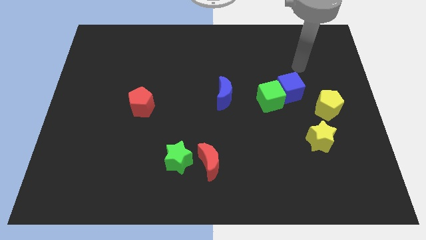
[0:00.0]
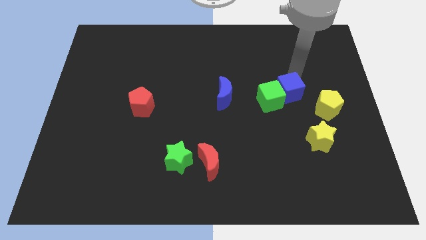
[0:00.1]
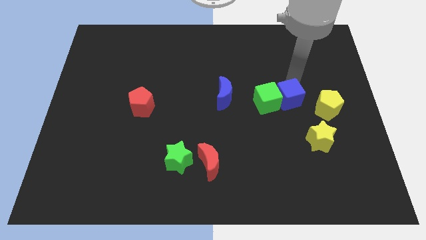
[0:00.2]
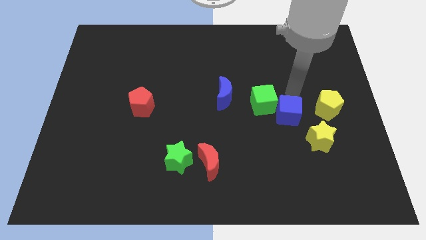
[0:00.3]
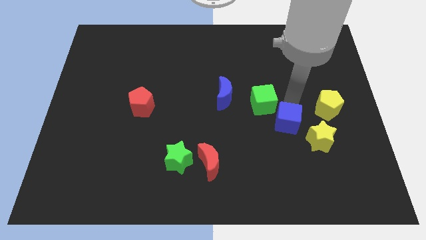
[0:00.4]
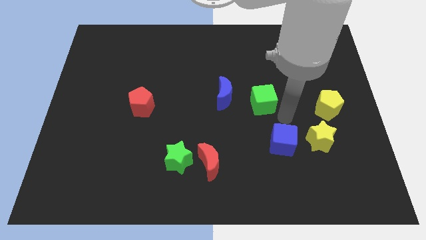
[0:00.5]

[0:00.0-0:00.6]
pull the green cube apart from the blue cube

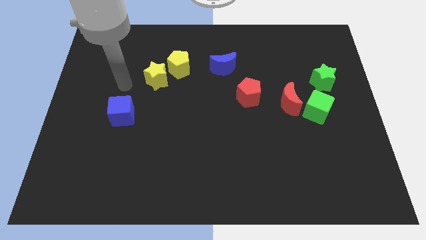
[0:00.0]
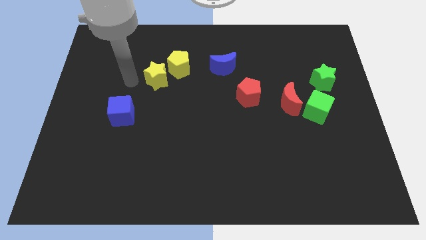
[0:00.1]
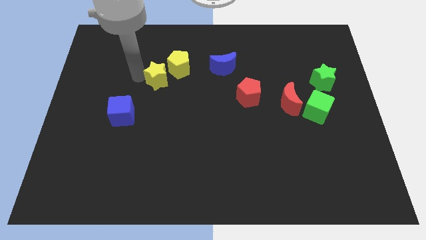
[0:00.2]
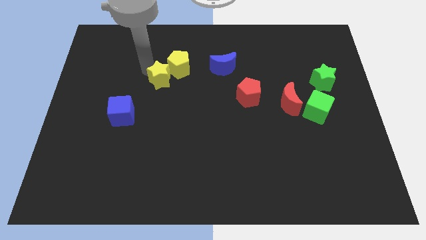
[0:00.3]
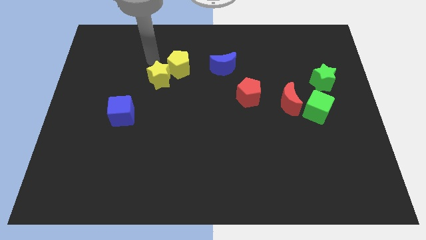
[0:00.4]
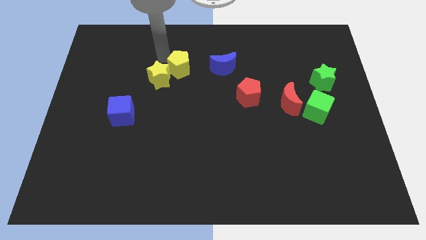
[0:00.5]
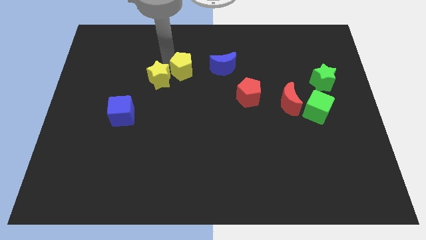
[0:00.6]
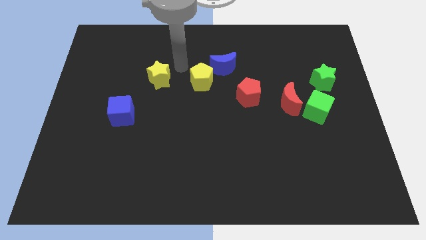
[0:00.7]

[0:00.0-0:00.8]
separate the yellow star from the yellow pentagon

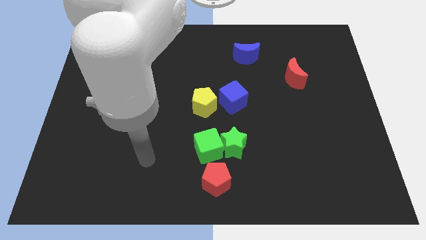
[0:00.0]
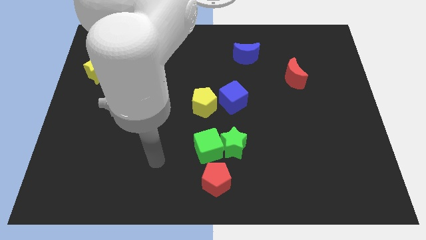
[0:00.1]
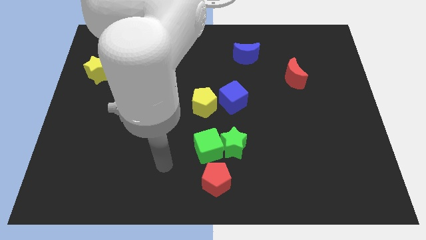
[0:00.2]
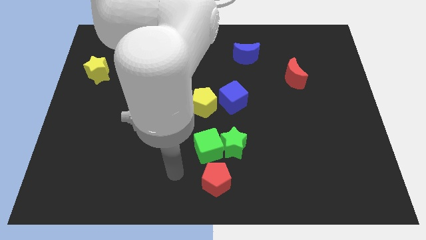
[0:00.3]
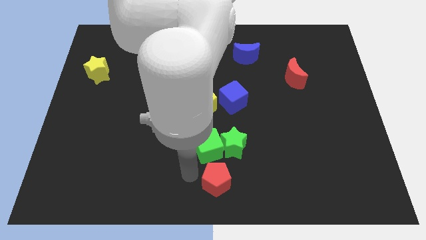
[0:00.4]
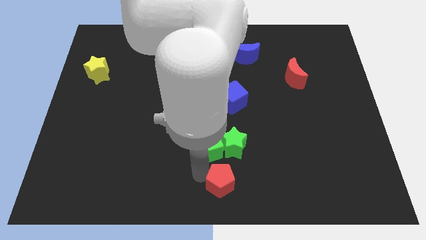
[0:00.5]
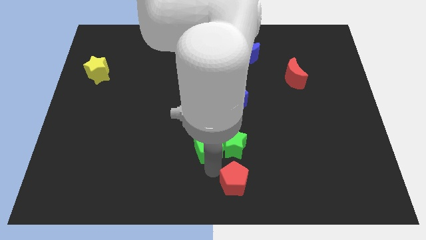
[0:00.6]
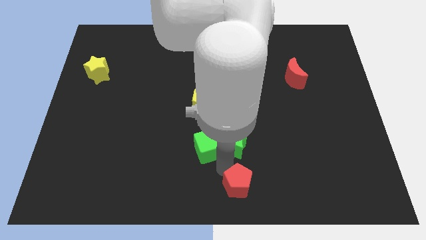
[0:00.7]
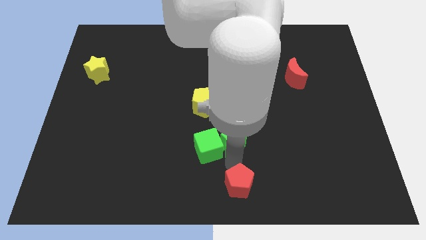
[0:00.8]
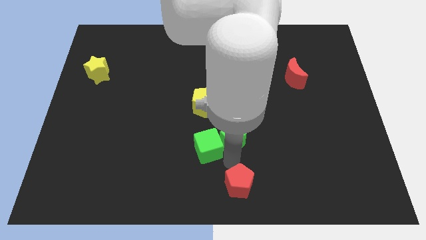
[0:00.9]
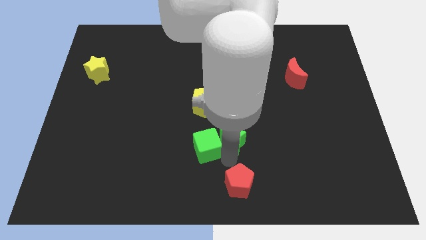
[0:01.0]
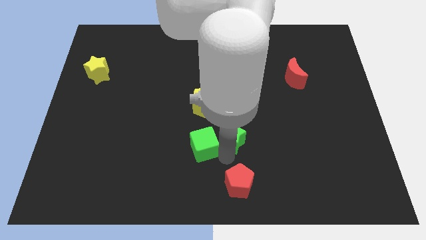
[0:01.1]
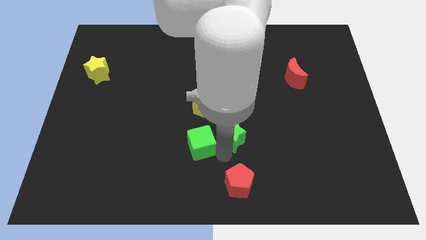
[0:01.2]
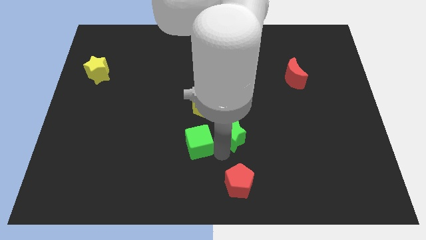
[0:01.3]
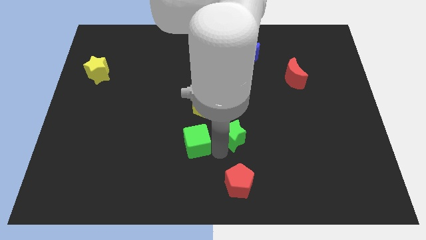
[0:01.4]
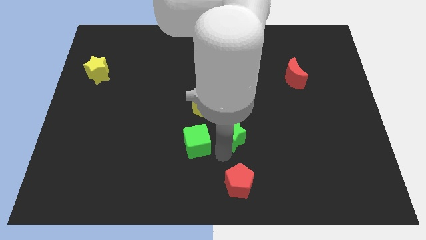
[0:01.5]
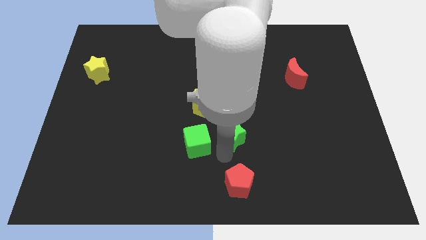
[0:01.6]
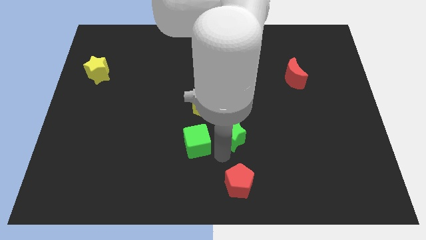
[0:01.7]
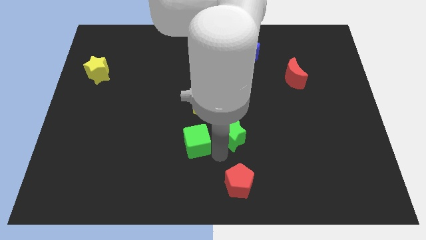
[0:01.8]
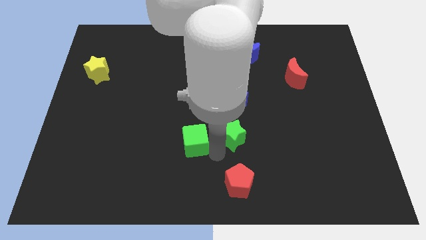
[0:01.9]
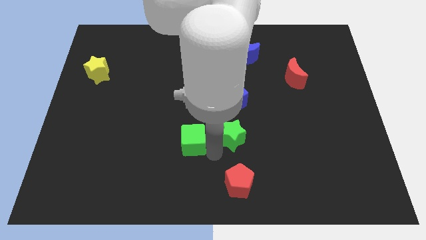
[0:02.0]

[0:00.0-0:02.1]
separate the green cube from the green star and red pentagon

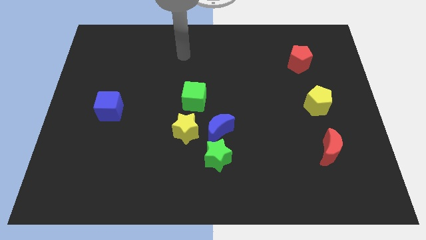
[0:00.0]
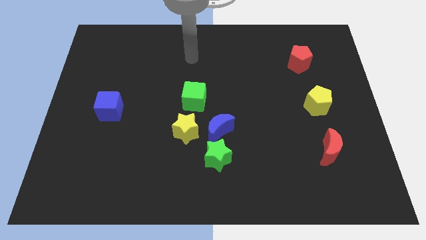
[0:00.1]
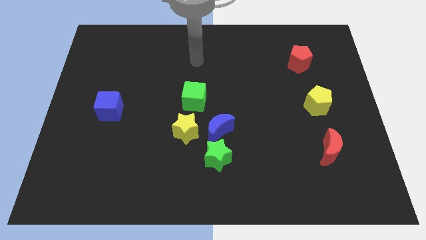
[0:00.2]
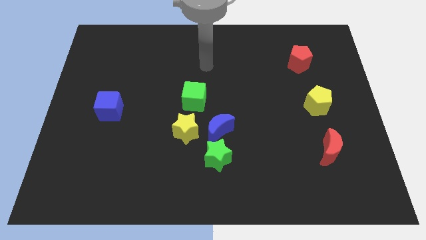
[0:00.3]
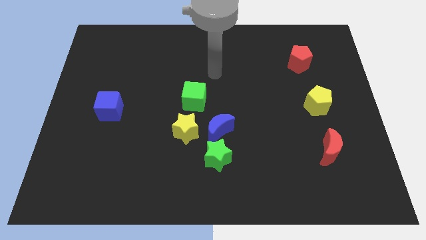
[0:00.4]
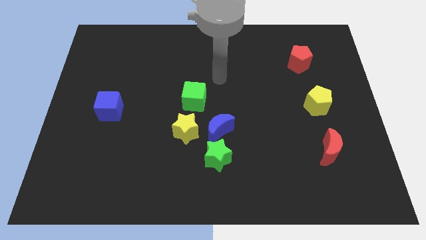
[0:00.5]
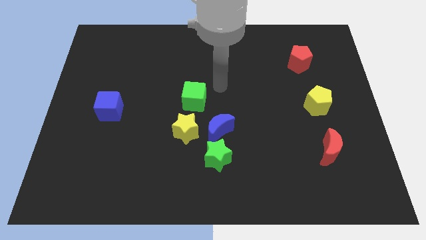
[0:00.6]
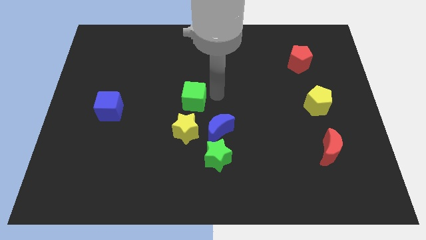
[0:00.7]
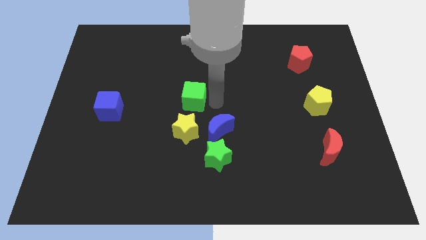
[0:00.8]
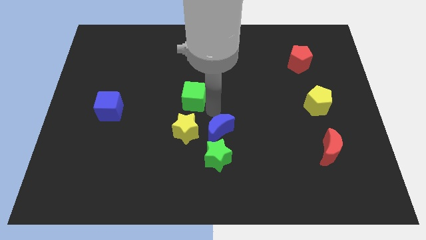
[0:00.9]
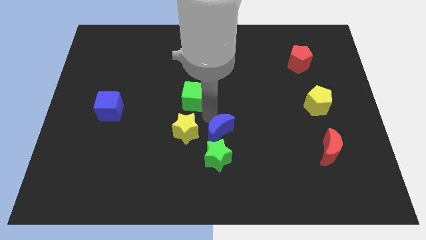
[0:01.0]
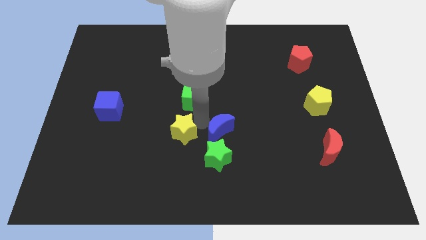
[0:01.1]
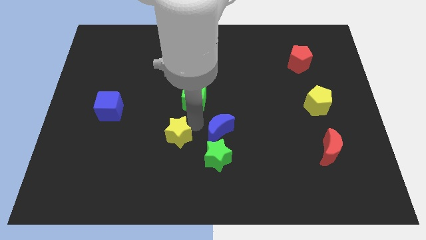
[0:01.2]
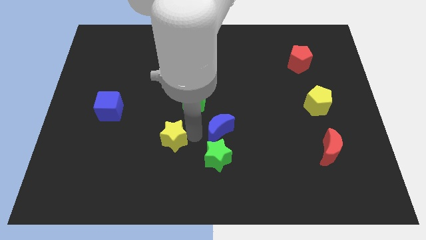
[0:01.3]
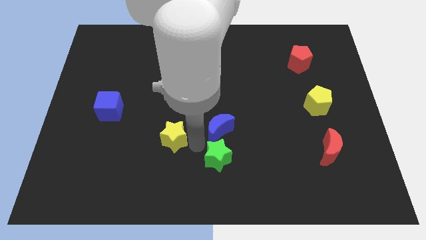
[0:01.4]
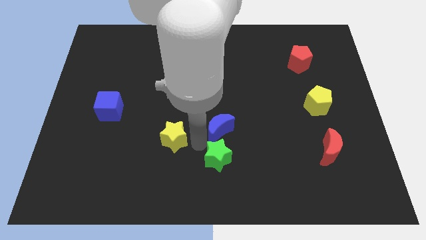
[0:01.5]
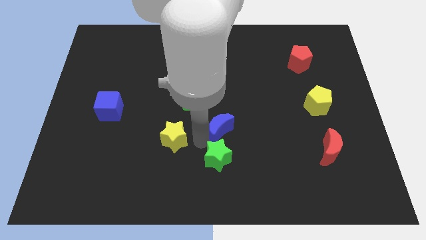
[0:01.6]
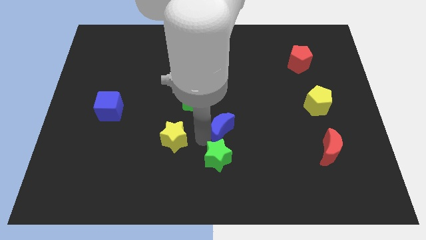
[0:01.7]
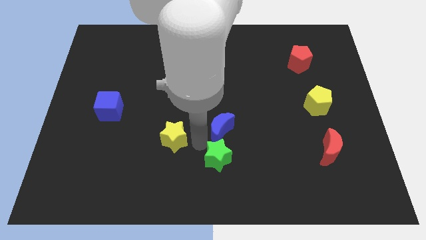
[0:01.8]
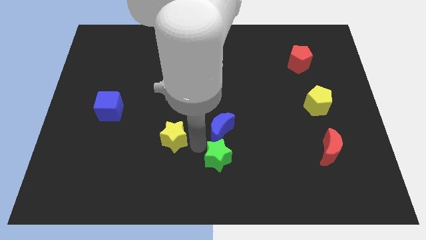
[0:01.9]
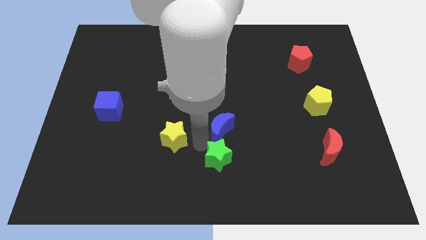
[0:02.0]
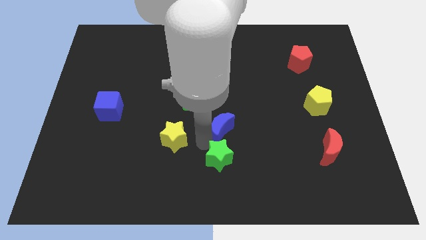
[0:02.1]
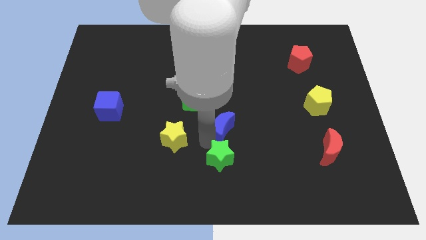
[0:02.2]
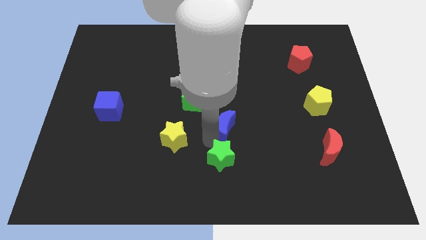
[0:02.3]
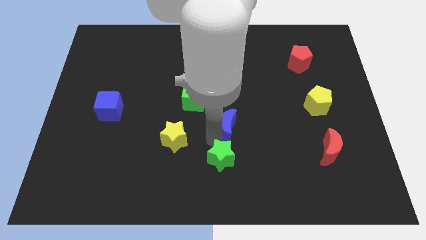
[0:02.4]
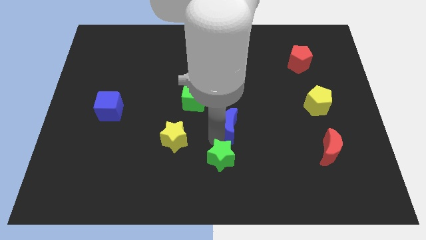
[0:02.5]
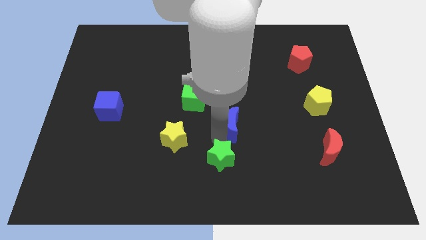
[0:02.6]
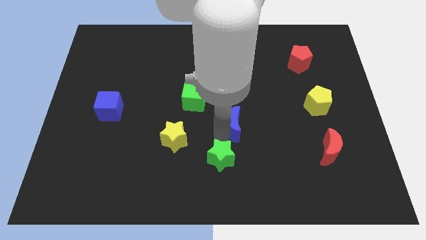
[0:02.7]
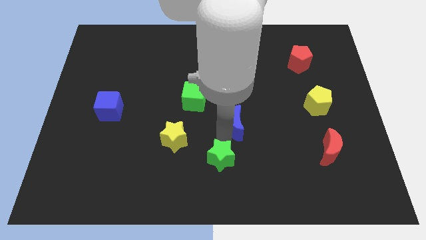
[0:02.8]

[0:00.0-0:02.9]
move the blue moon away from the green star and yellow star

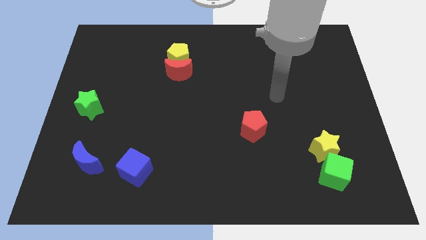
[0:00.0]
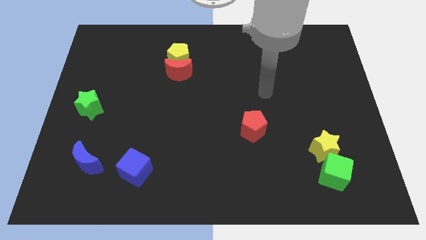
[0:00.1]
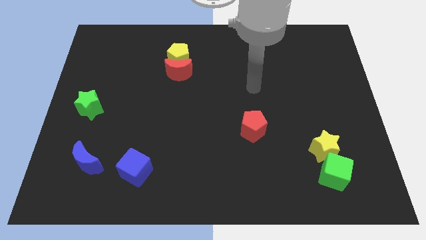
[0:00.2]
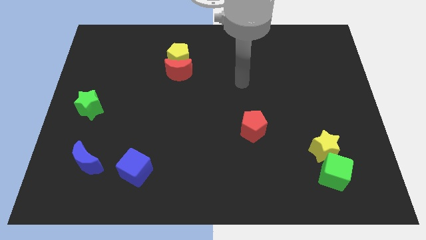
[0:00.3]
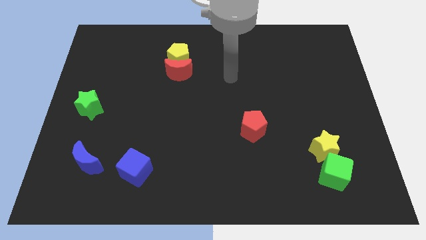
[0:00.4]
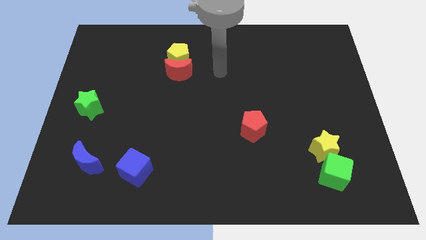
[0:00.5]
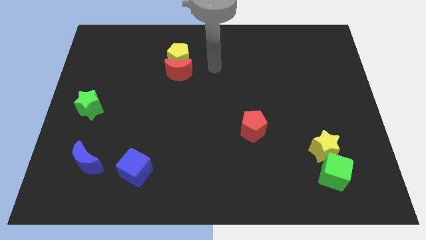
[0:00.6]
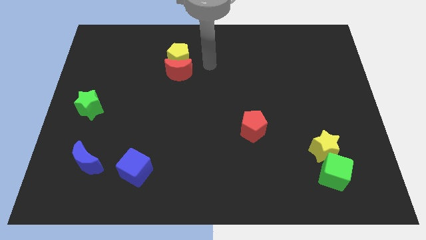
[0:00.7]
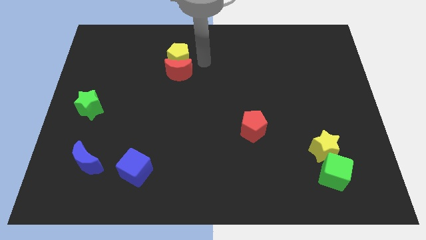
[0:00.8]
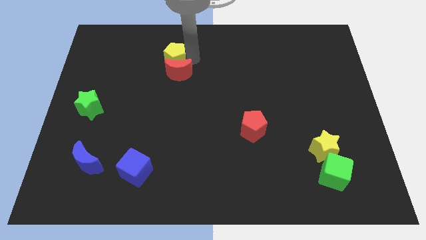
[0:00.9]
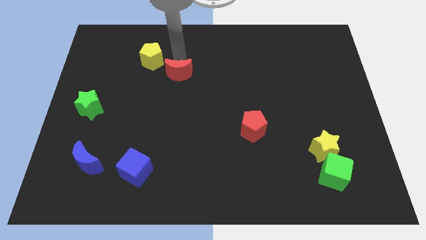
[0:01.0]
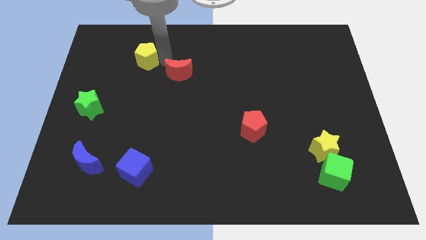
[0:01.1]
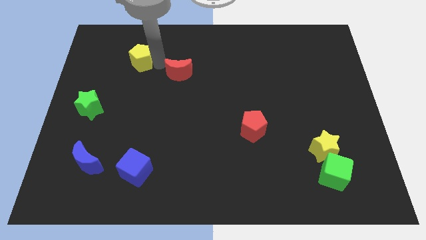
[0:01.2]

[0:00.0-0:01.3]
pull the red moon apart from the yellow pentagon

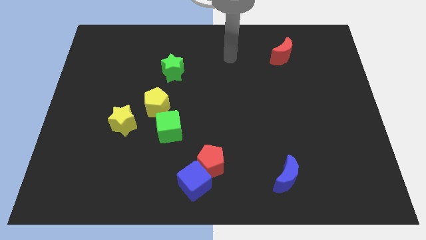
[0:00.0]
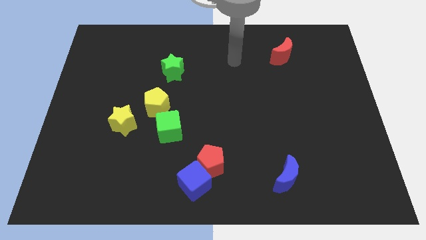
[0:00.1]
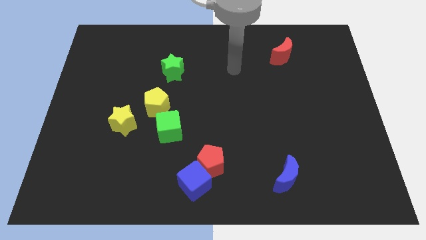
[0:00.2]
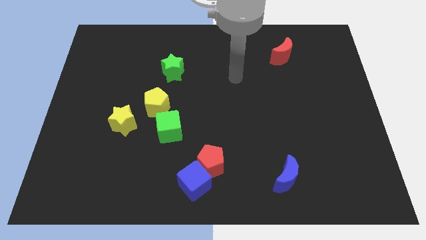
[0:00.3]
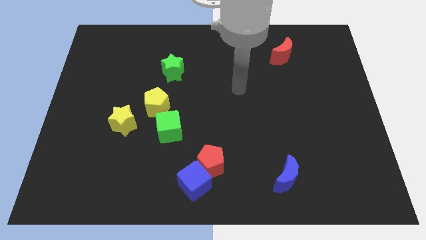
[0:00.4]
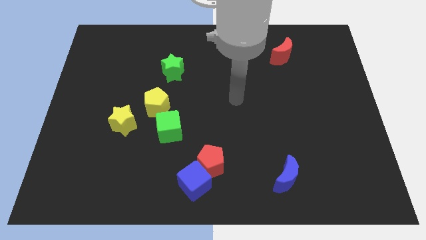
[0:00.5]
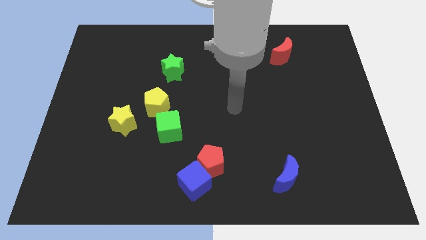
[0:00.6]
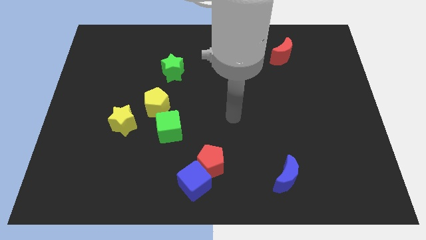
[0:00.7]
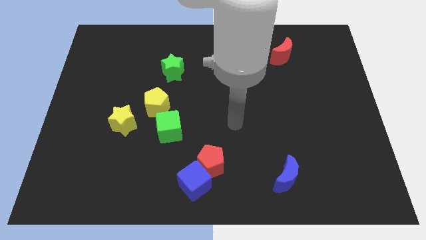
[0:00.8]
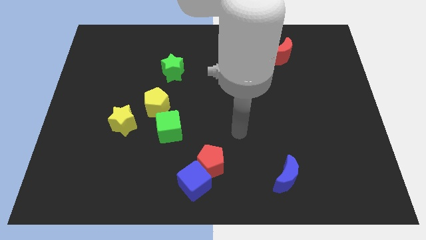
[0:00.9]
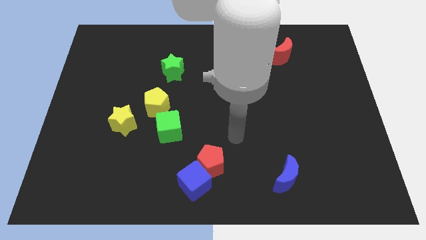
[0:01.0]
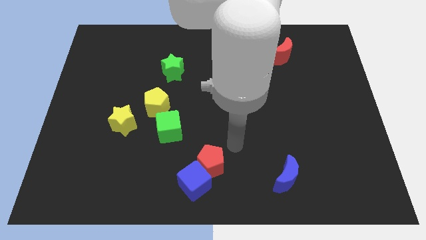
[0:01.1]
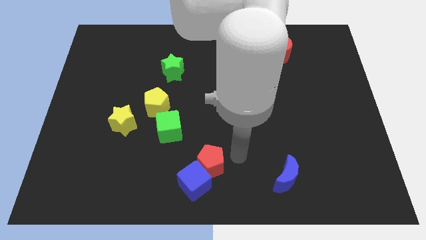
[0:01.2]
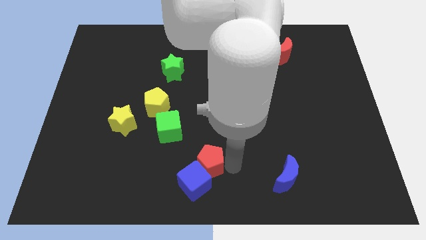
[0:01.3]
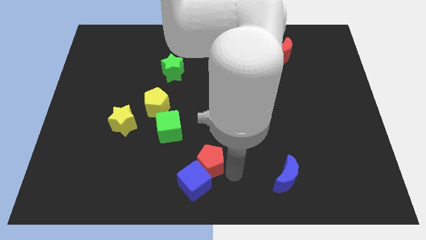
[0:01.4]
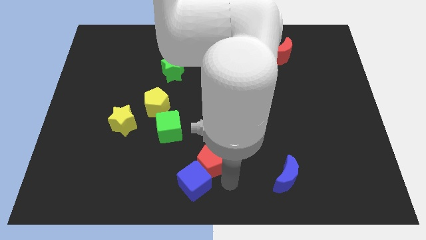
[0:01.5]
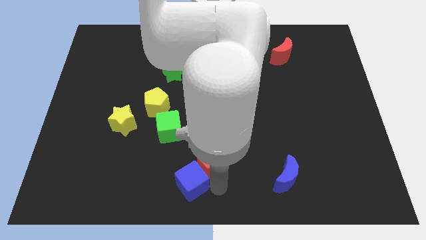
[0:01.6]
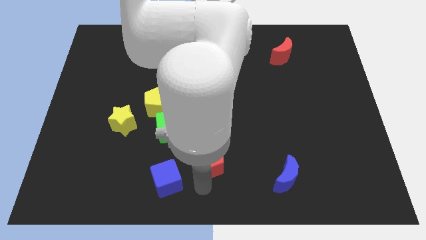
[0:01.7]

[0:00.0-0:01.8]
separate the red pentagon from the blue cube

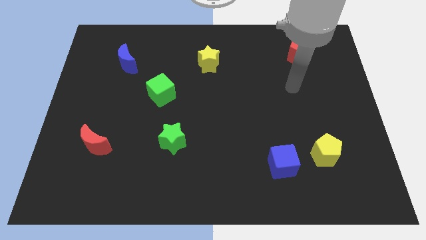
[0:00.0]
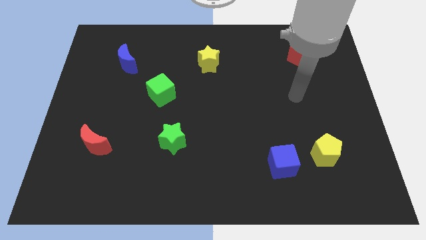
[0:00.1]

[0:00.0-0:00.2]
pull the blue cube apart from the yellow pentagon
